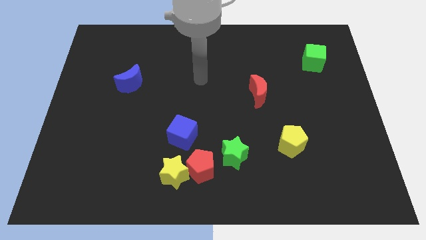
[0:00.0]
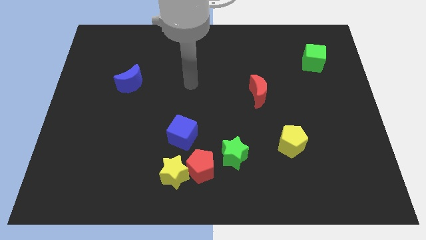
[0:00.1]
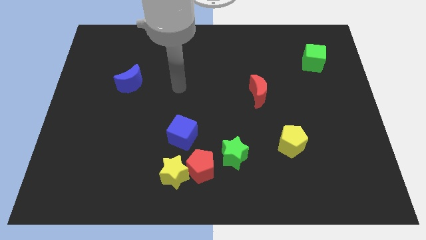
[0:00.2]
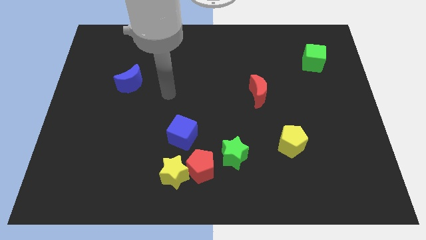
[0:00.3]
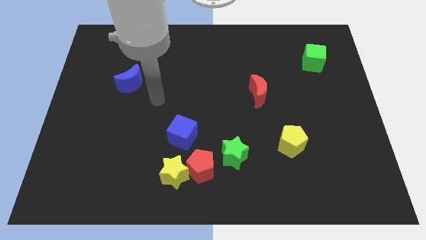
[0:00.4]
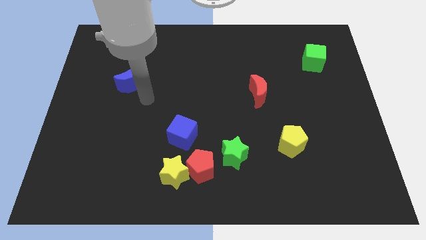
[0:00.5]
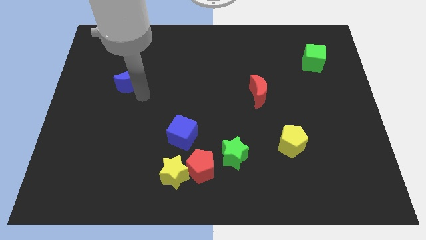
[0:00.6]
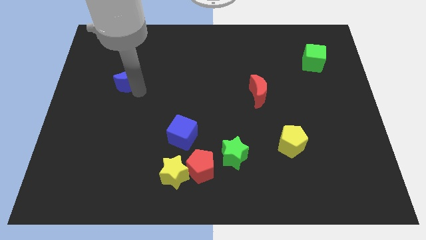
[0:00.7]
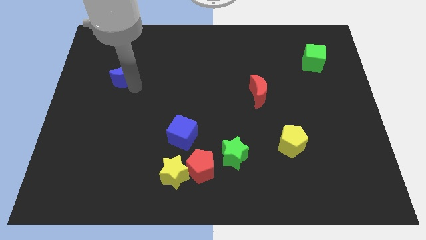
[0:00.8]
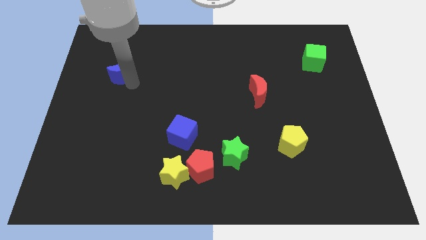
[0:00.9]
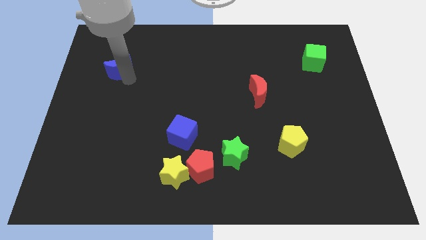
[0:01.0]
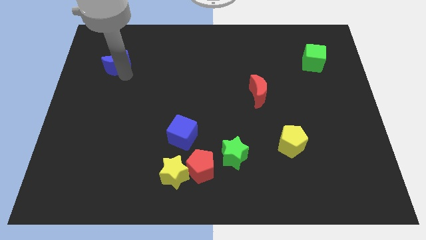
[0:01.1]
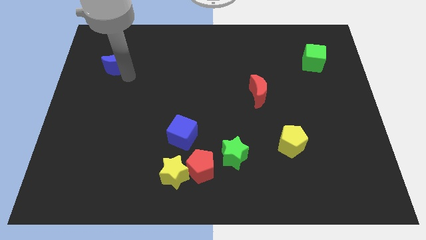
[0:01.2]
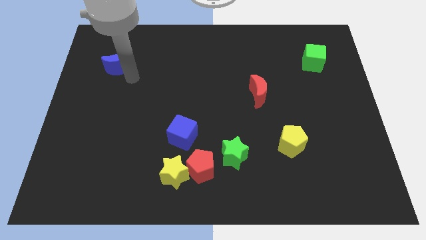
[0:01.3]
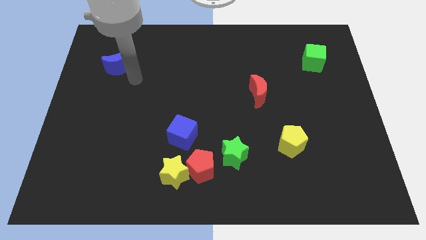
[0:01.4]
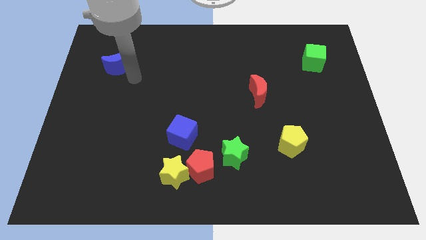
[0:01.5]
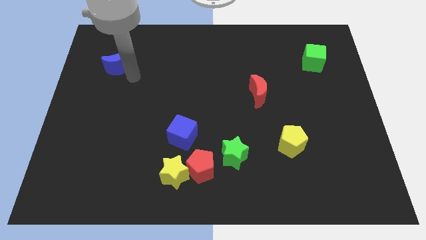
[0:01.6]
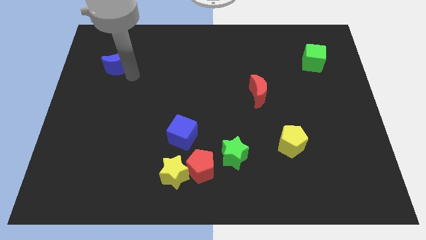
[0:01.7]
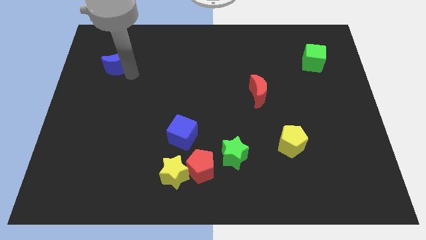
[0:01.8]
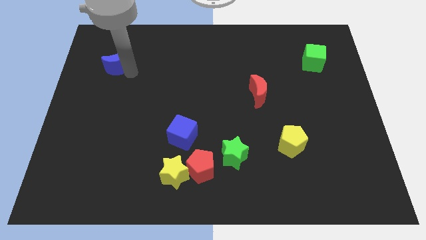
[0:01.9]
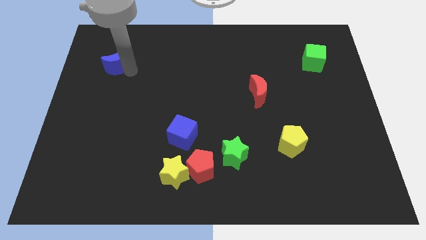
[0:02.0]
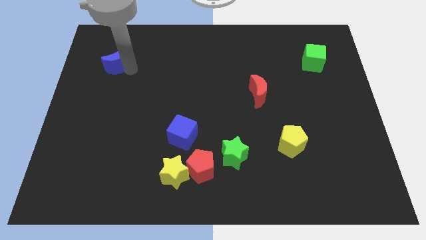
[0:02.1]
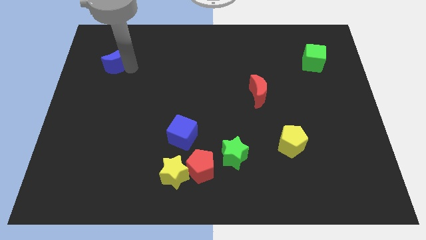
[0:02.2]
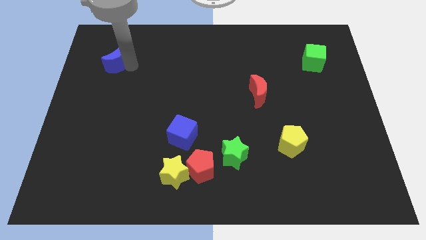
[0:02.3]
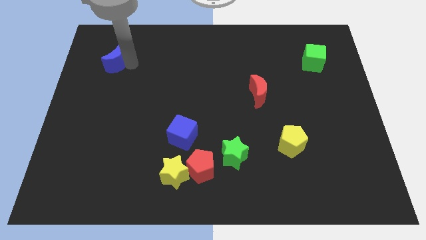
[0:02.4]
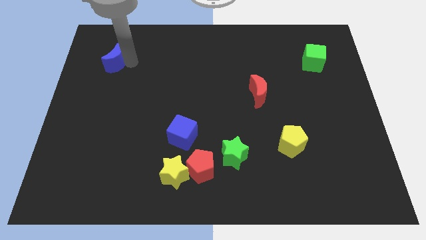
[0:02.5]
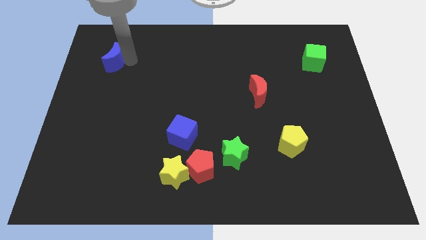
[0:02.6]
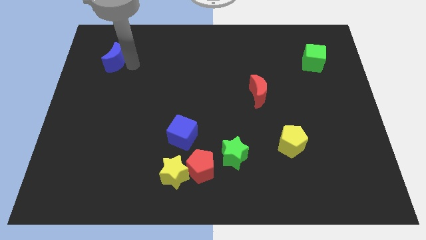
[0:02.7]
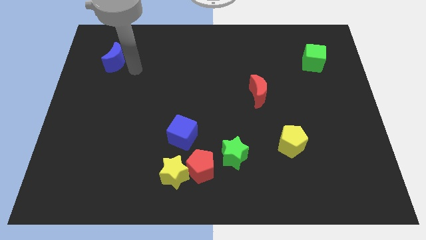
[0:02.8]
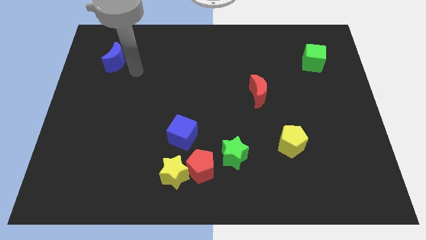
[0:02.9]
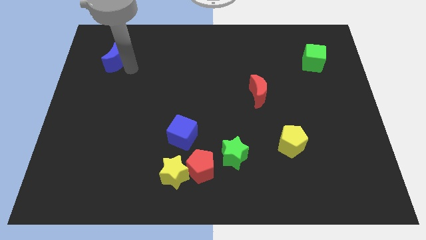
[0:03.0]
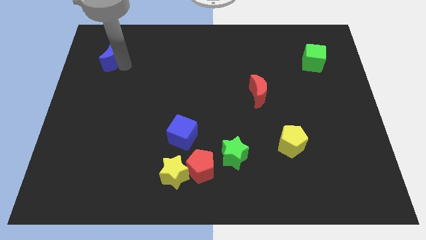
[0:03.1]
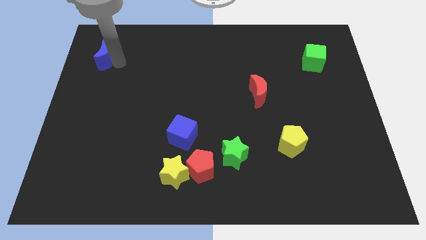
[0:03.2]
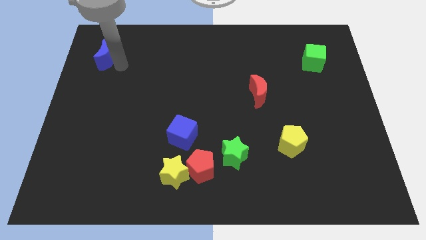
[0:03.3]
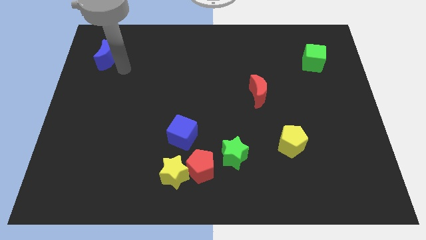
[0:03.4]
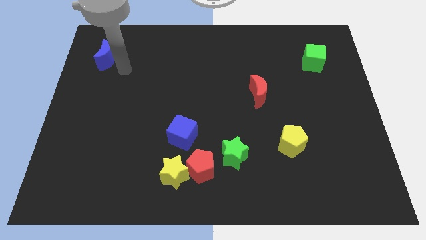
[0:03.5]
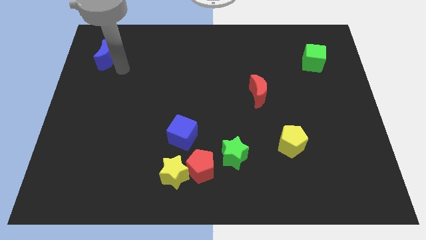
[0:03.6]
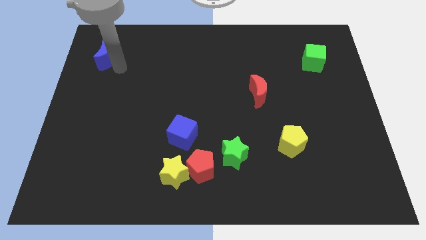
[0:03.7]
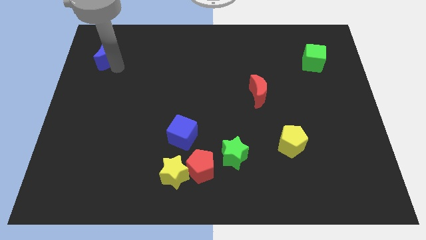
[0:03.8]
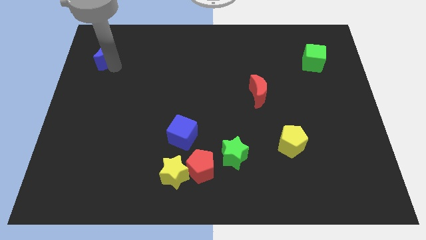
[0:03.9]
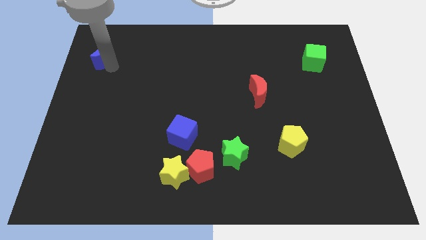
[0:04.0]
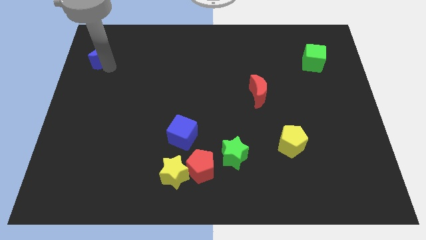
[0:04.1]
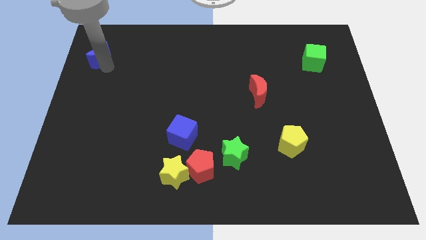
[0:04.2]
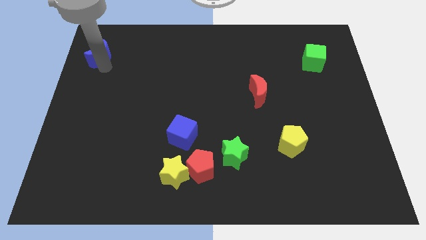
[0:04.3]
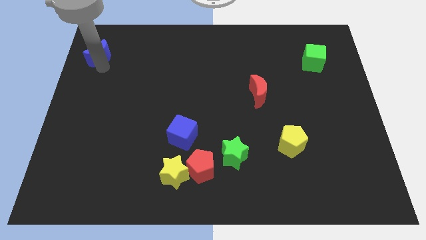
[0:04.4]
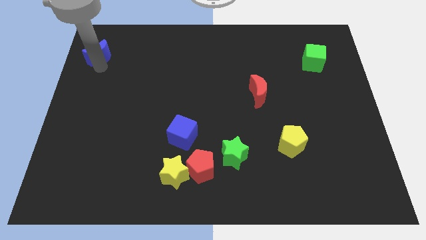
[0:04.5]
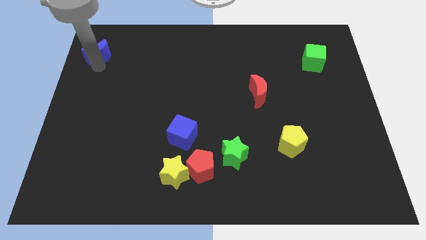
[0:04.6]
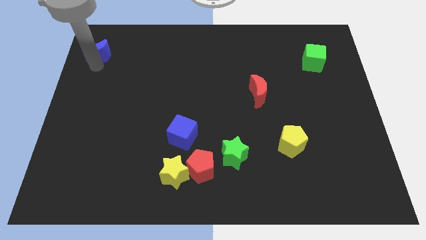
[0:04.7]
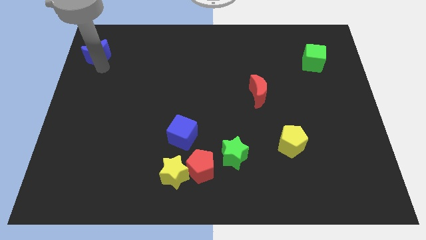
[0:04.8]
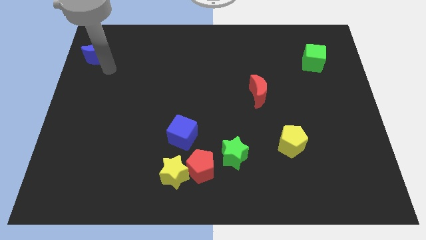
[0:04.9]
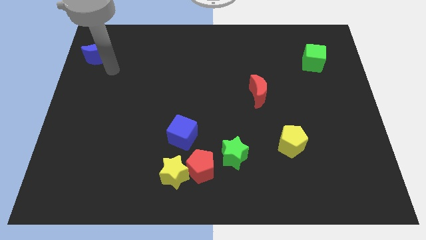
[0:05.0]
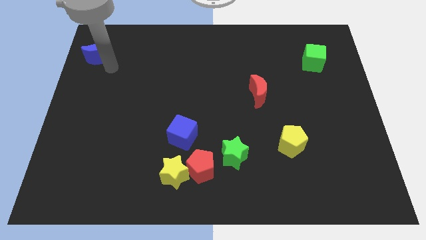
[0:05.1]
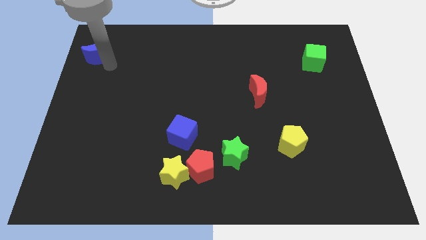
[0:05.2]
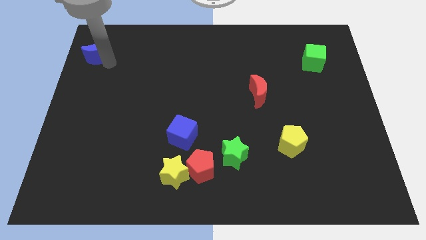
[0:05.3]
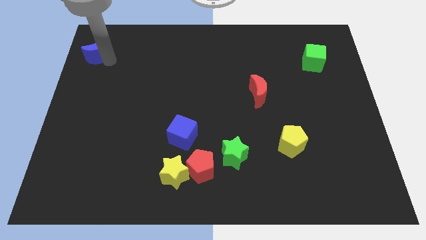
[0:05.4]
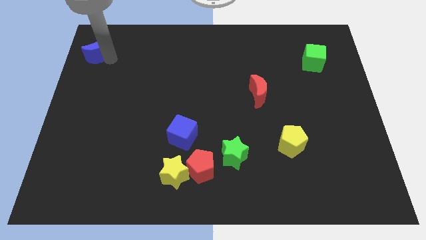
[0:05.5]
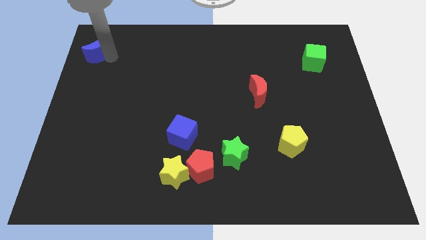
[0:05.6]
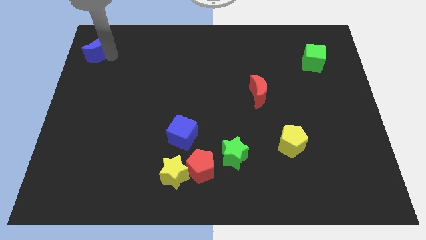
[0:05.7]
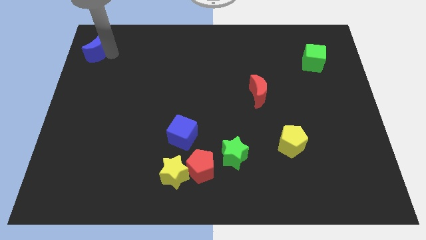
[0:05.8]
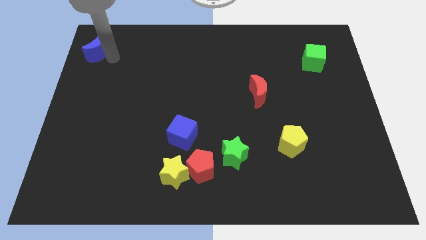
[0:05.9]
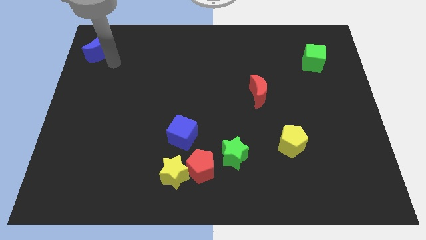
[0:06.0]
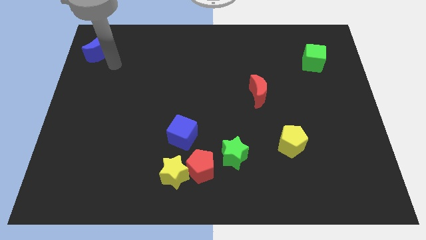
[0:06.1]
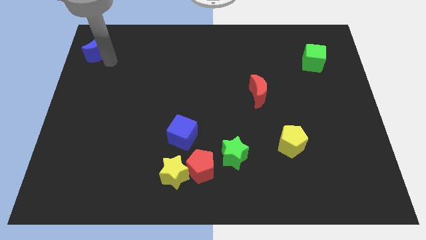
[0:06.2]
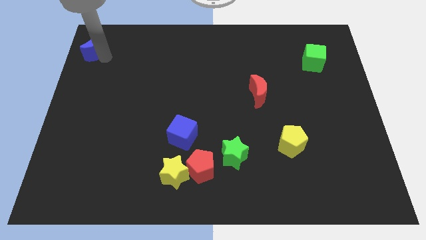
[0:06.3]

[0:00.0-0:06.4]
push the blue moon to the top left

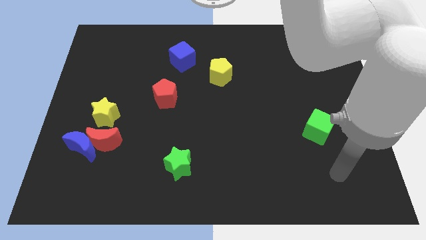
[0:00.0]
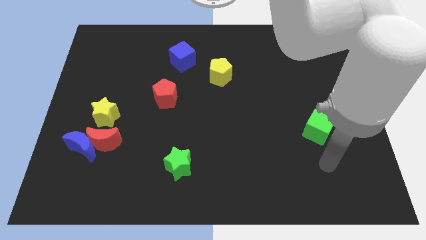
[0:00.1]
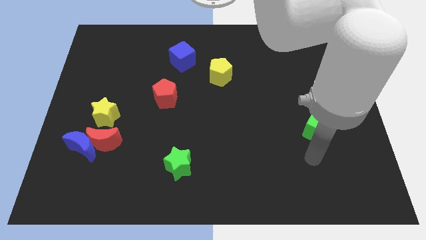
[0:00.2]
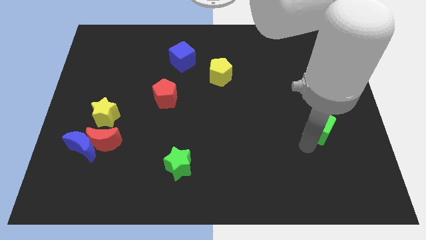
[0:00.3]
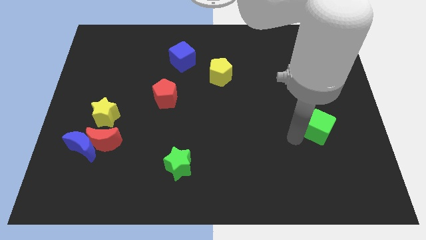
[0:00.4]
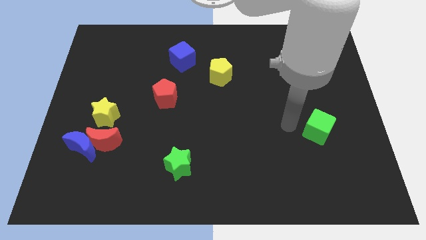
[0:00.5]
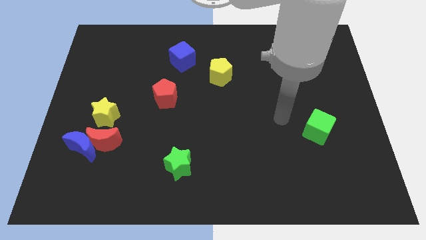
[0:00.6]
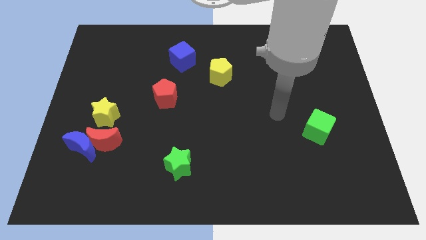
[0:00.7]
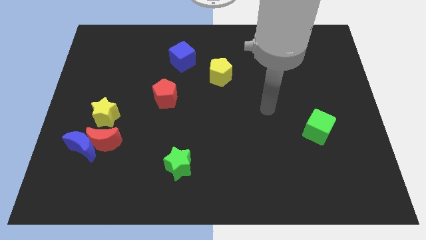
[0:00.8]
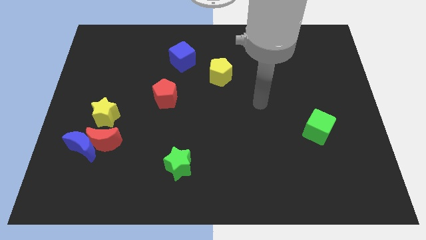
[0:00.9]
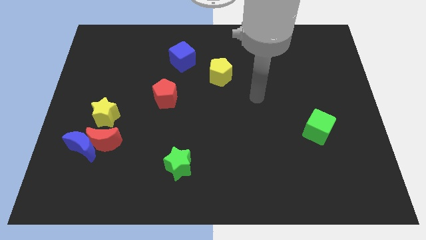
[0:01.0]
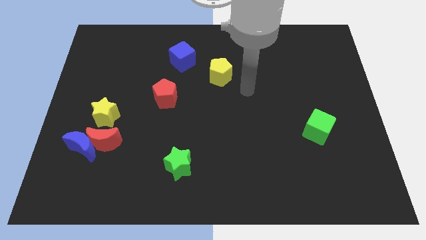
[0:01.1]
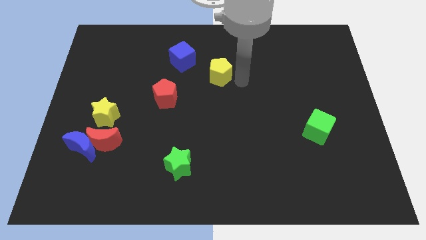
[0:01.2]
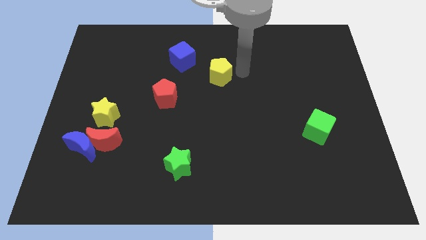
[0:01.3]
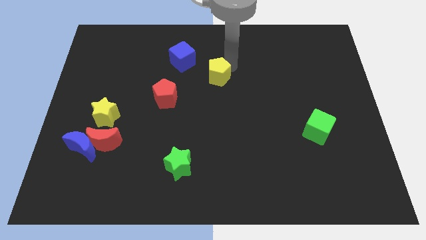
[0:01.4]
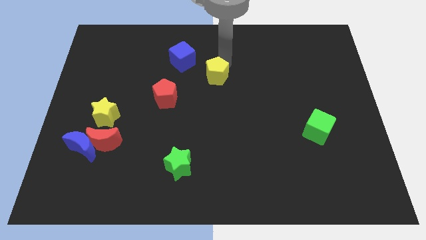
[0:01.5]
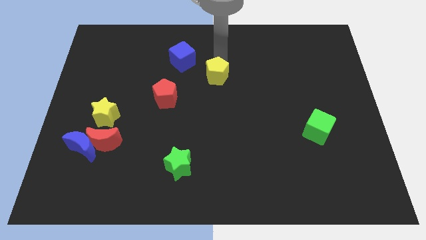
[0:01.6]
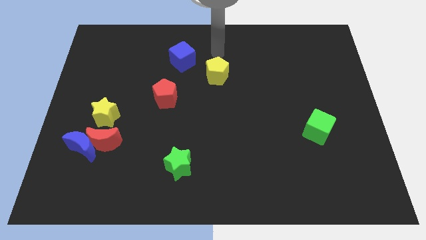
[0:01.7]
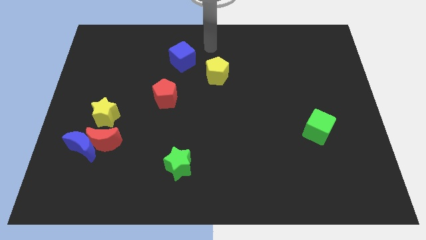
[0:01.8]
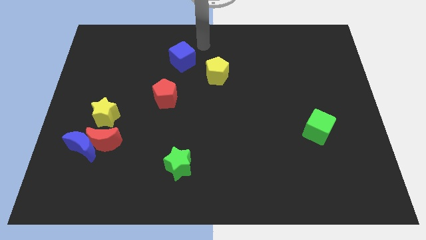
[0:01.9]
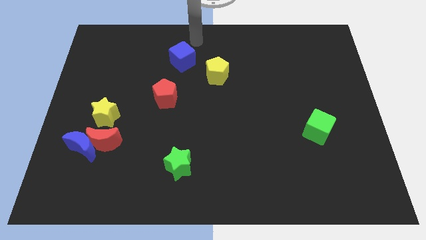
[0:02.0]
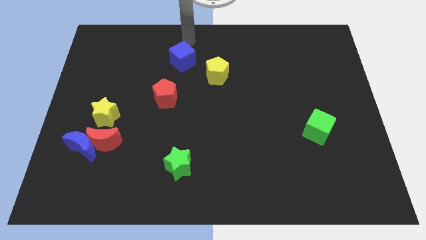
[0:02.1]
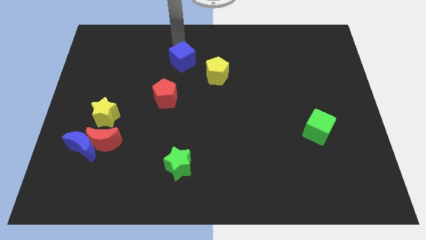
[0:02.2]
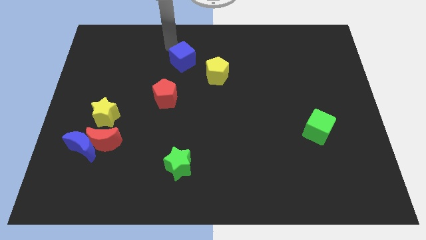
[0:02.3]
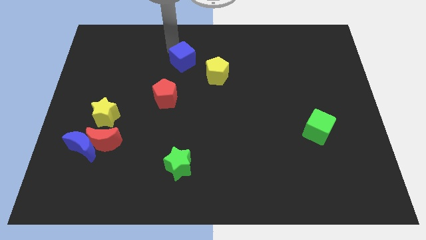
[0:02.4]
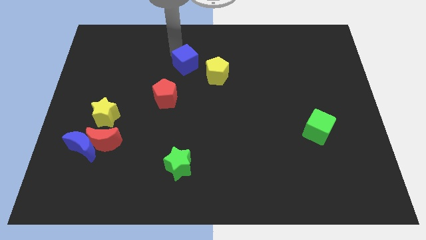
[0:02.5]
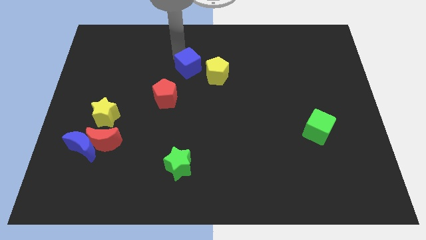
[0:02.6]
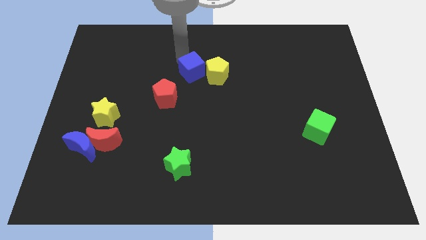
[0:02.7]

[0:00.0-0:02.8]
move the blue cube to the center
